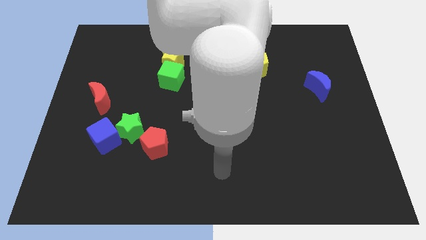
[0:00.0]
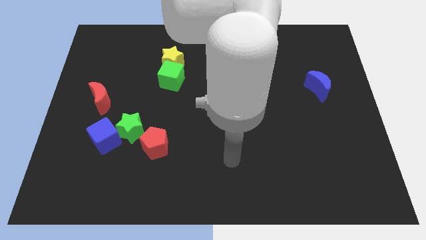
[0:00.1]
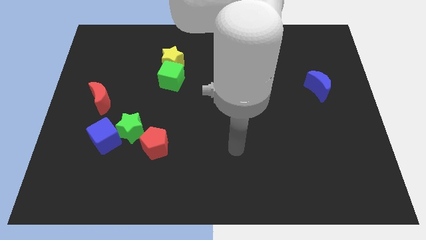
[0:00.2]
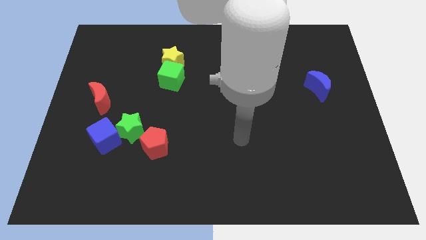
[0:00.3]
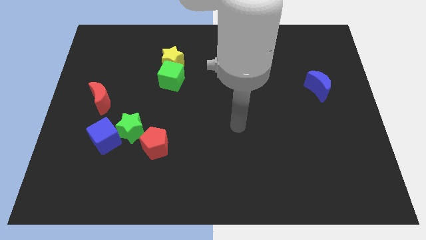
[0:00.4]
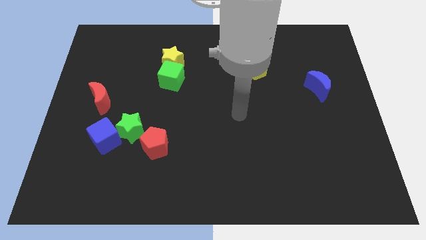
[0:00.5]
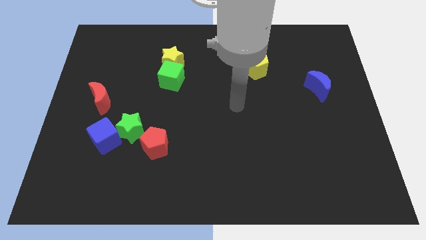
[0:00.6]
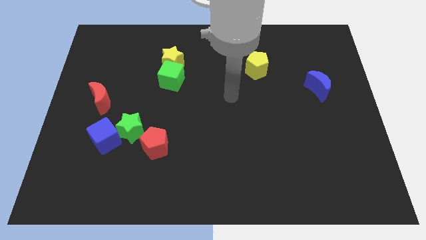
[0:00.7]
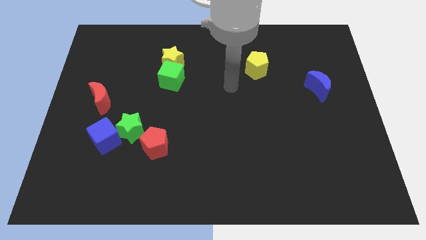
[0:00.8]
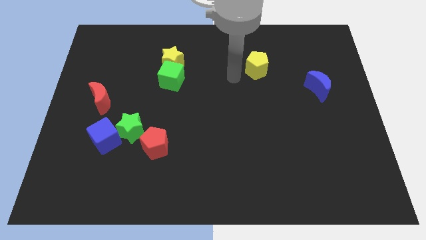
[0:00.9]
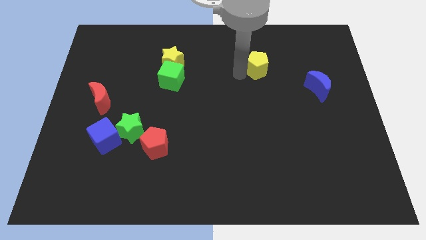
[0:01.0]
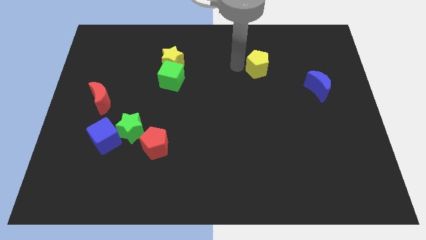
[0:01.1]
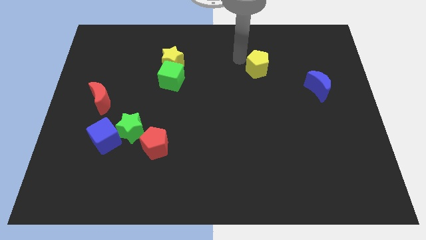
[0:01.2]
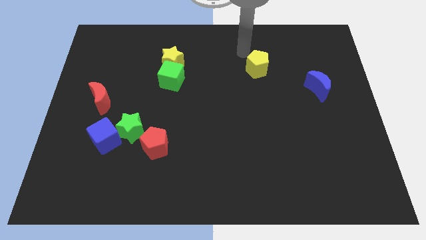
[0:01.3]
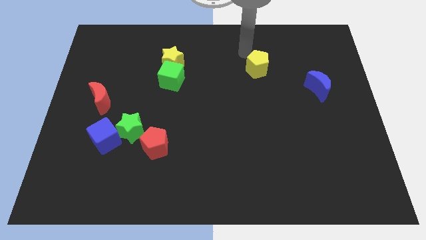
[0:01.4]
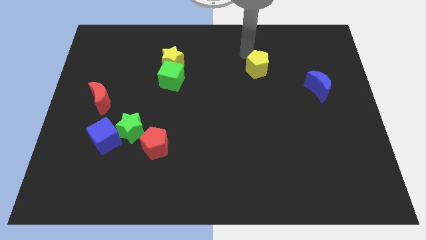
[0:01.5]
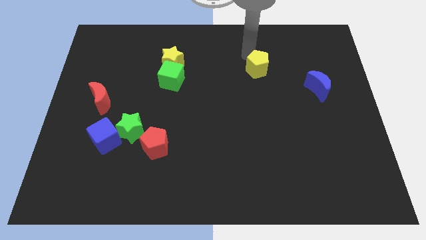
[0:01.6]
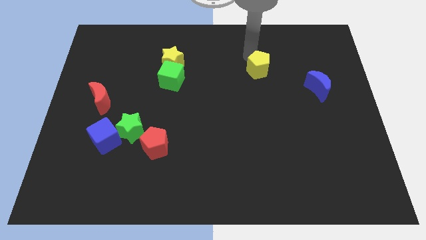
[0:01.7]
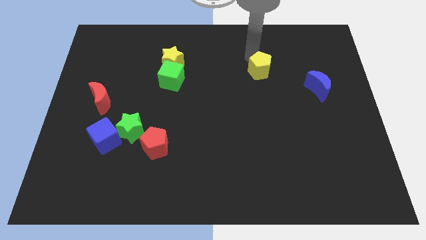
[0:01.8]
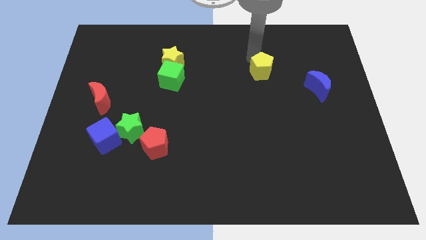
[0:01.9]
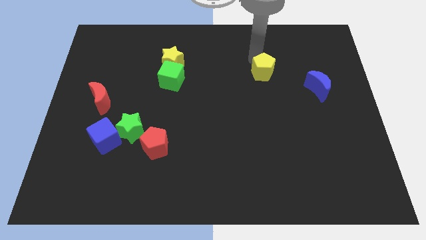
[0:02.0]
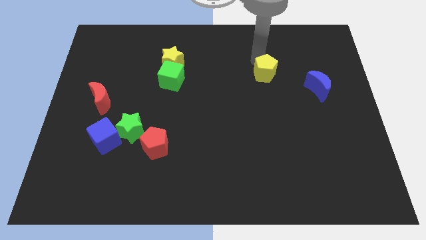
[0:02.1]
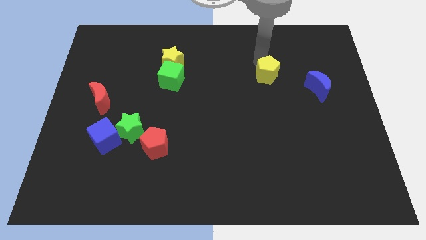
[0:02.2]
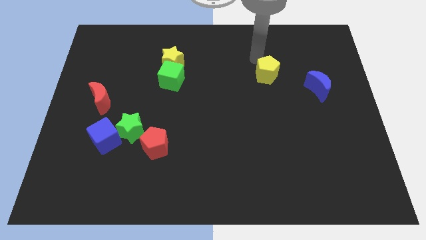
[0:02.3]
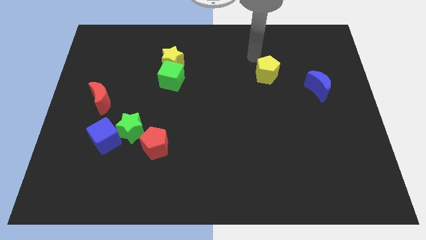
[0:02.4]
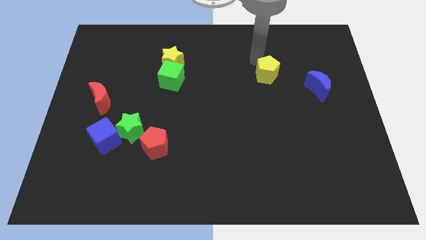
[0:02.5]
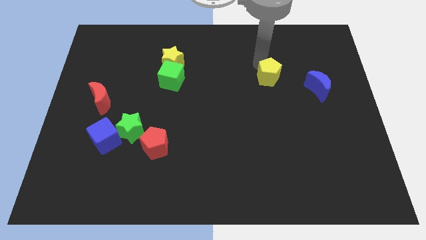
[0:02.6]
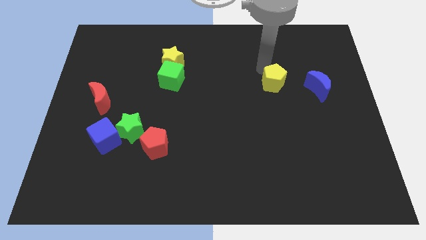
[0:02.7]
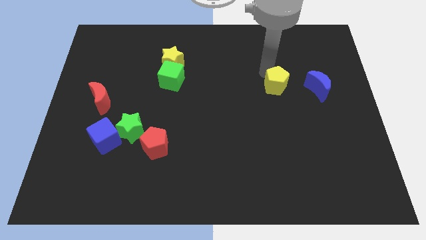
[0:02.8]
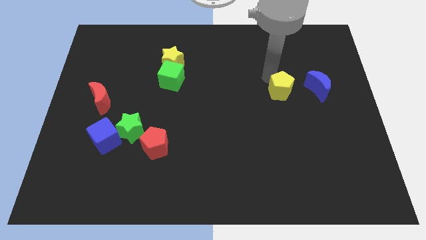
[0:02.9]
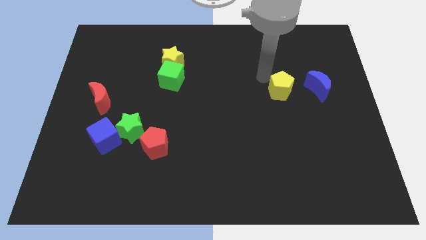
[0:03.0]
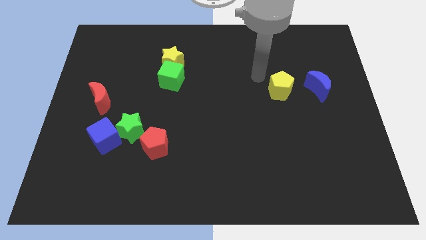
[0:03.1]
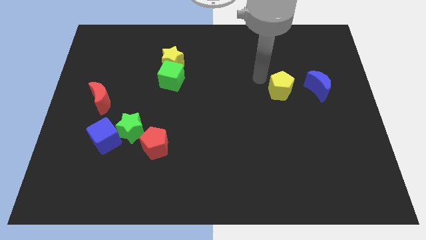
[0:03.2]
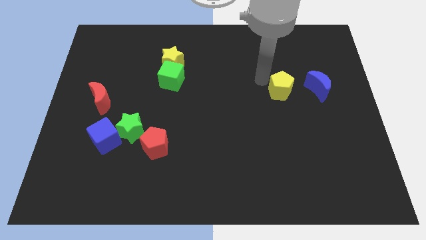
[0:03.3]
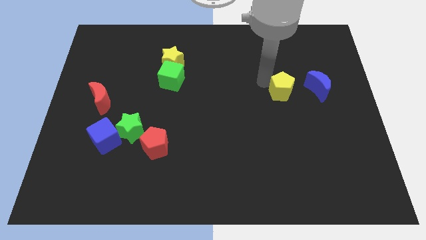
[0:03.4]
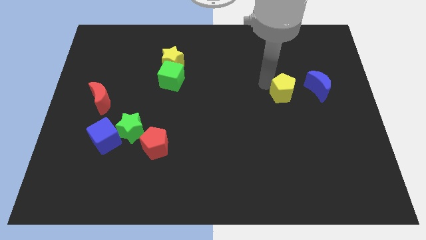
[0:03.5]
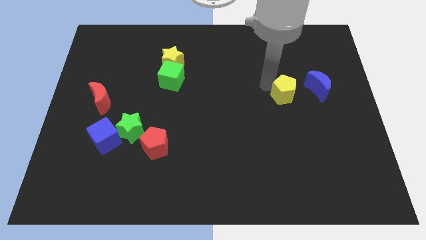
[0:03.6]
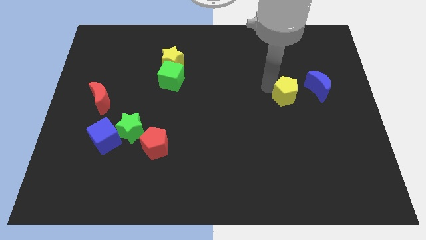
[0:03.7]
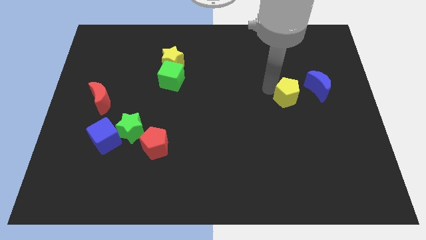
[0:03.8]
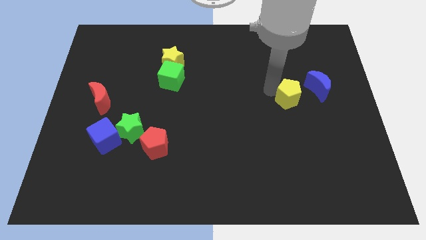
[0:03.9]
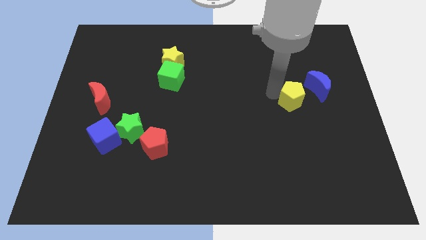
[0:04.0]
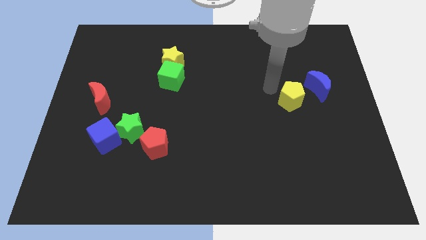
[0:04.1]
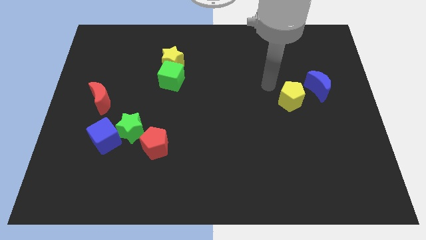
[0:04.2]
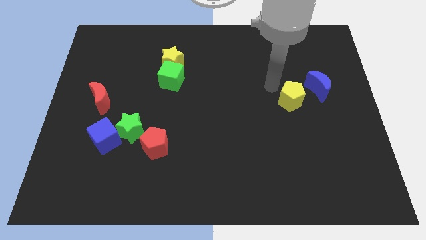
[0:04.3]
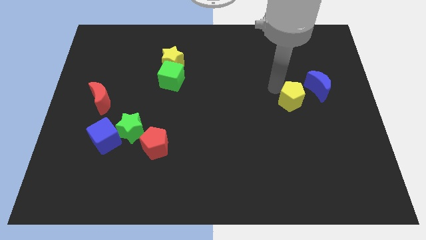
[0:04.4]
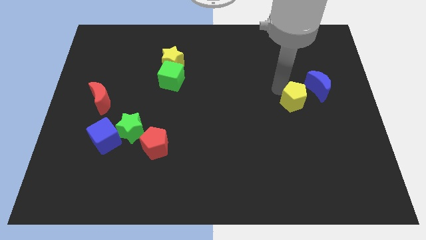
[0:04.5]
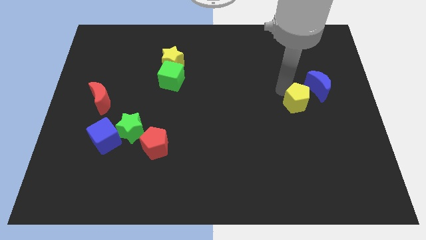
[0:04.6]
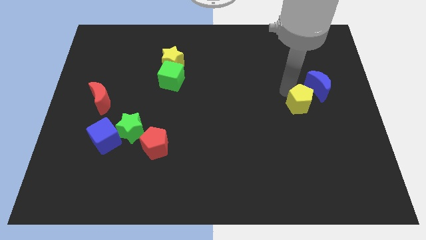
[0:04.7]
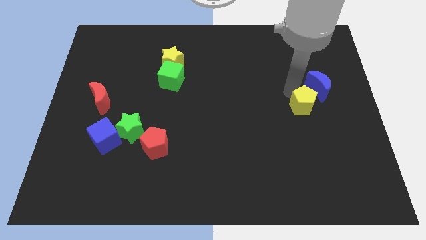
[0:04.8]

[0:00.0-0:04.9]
push the yellow pentagon below the blue moon

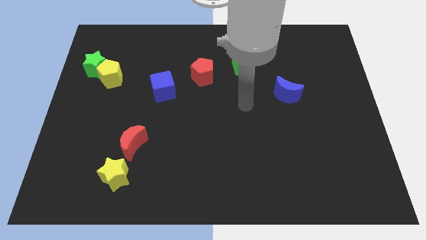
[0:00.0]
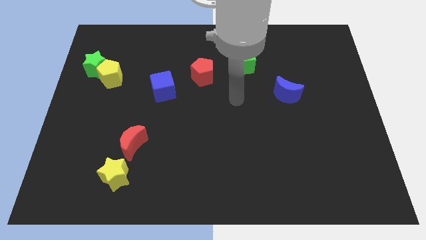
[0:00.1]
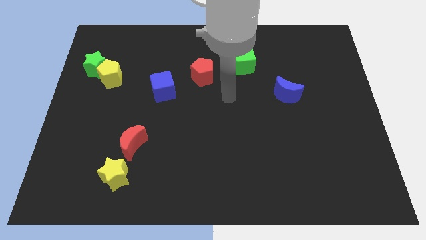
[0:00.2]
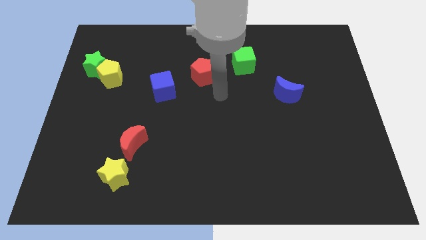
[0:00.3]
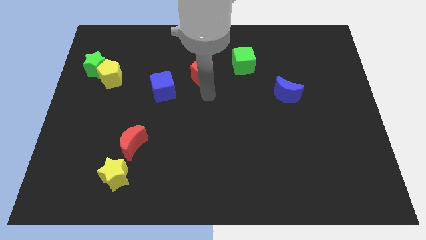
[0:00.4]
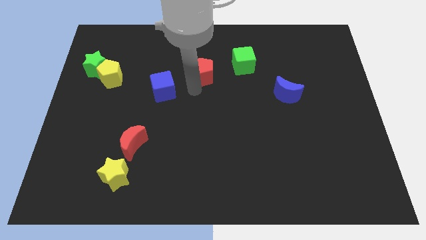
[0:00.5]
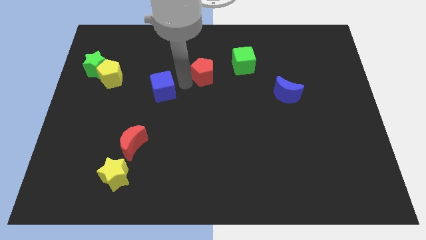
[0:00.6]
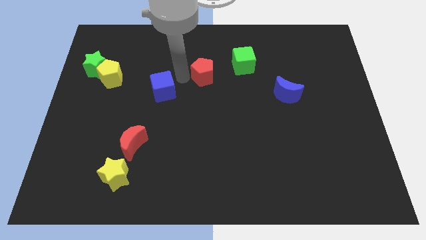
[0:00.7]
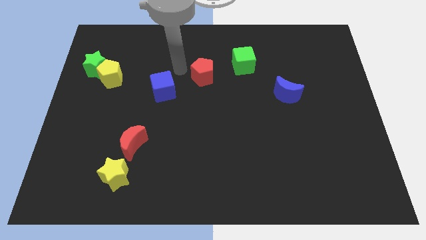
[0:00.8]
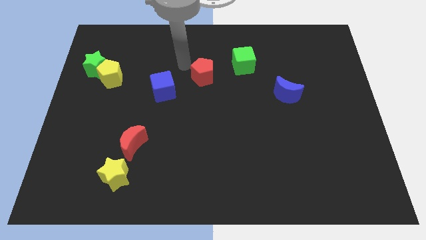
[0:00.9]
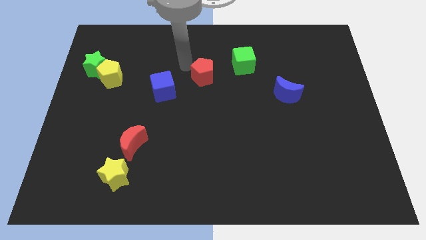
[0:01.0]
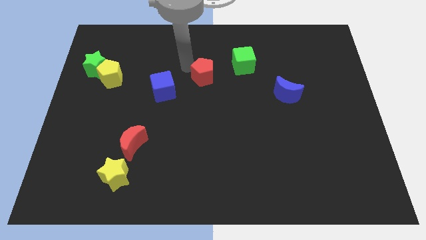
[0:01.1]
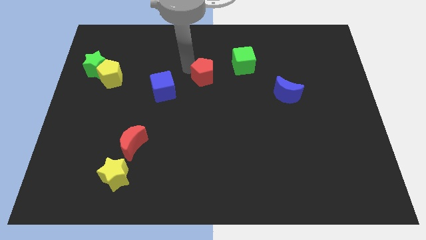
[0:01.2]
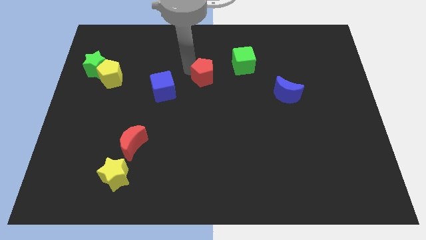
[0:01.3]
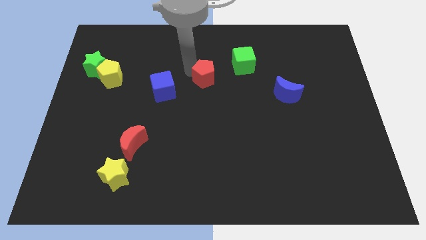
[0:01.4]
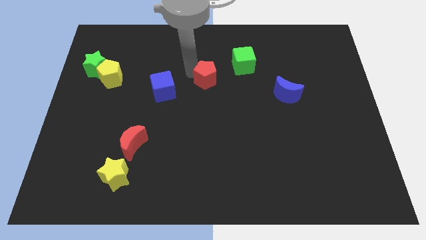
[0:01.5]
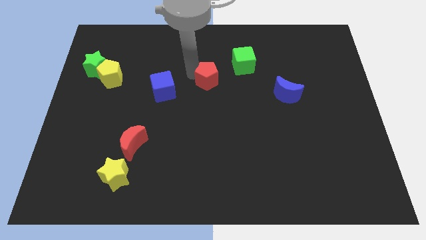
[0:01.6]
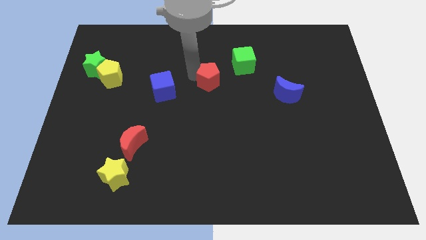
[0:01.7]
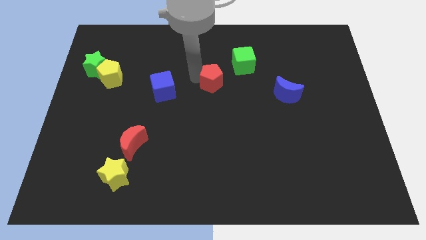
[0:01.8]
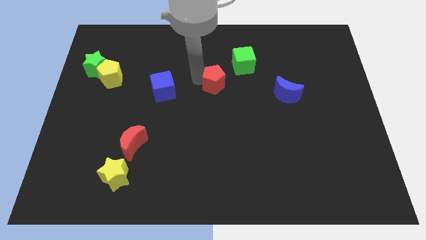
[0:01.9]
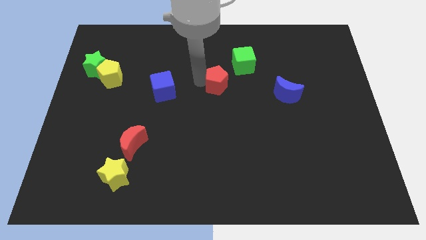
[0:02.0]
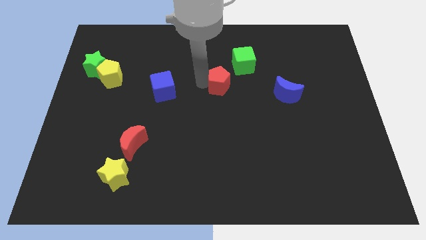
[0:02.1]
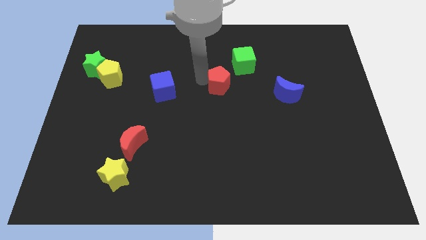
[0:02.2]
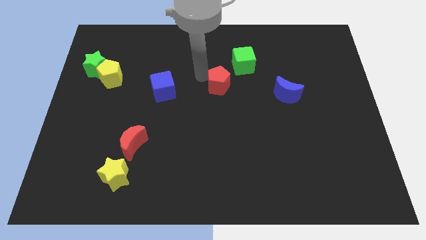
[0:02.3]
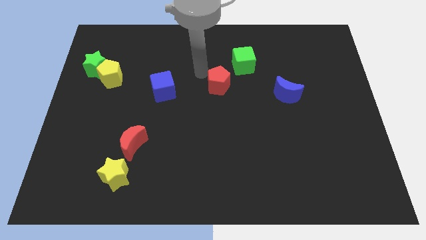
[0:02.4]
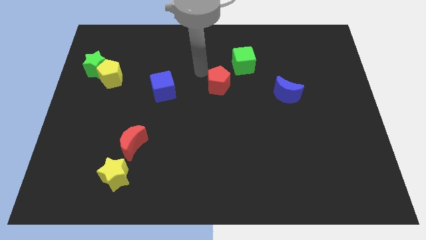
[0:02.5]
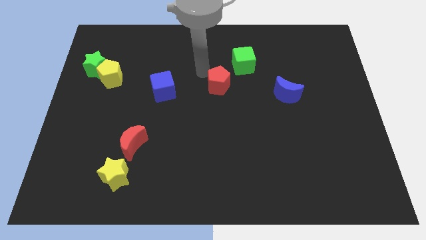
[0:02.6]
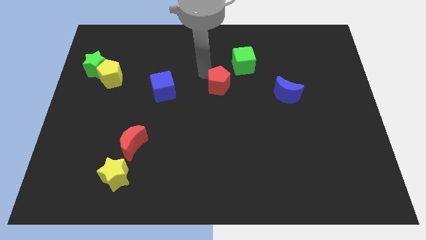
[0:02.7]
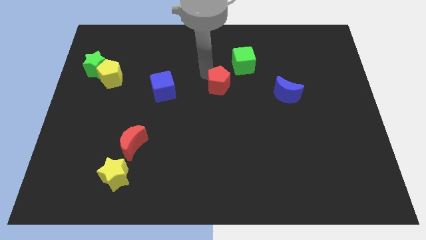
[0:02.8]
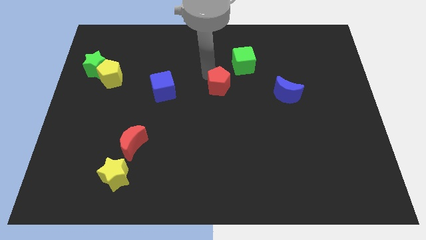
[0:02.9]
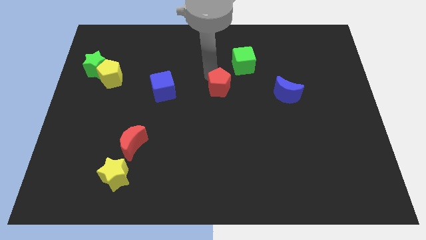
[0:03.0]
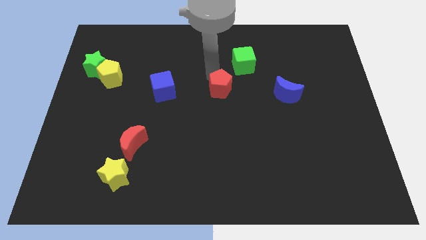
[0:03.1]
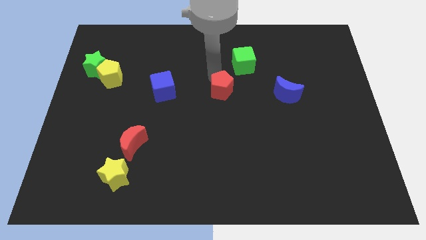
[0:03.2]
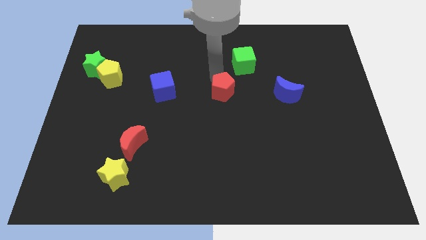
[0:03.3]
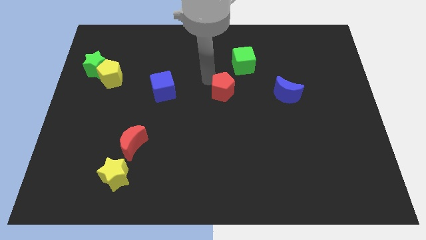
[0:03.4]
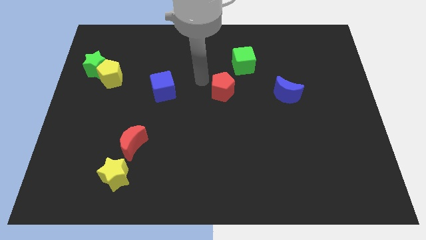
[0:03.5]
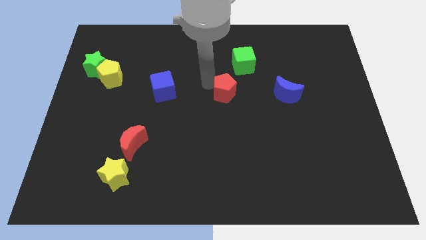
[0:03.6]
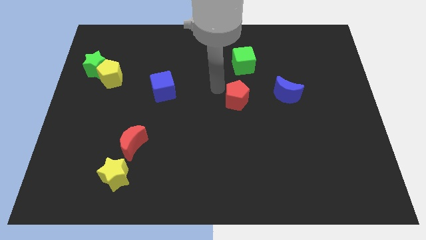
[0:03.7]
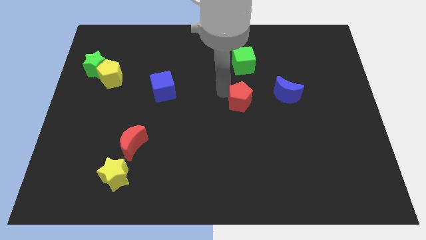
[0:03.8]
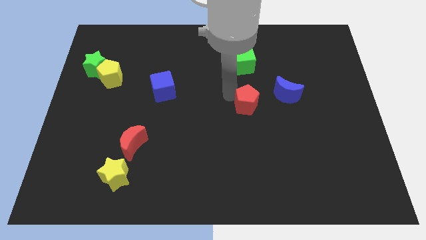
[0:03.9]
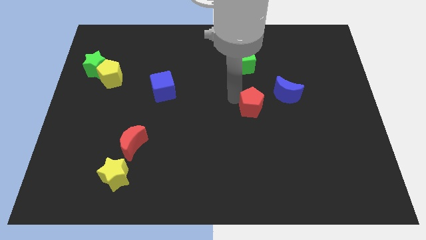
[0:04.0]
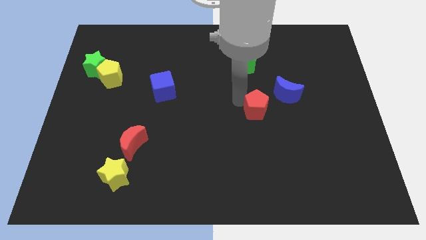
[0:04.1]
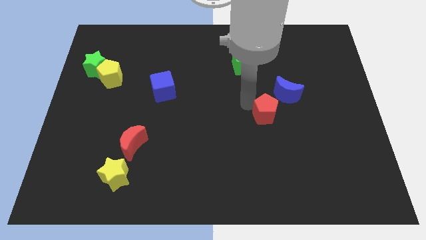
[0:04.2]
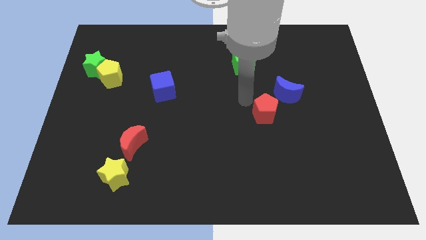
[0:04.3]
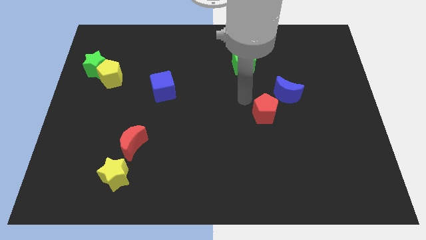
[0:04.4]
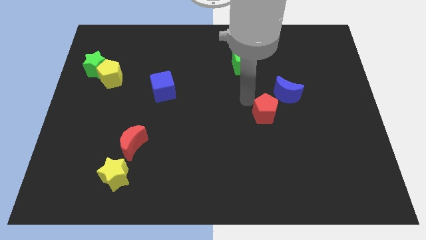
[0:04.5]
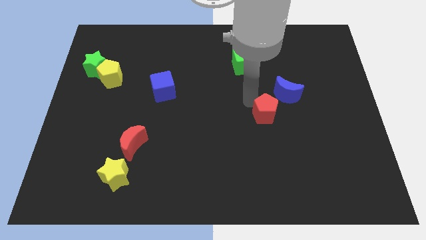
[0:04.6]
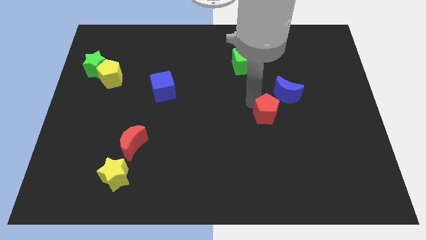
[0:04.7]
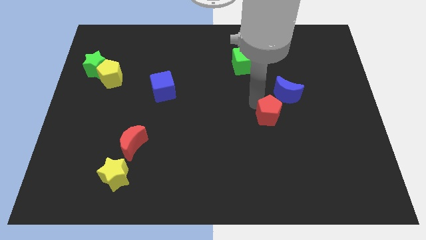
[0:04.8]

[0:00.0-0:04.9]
push the red pentagon to the bottom side of the blue moon
